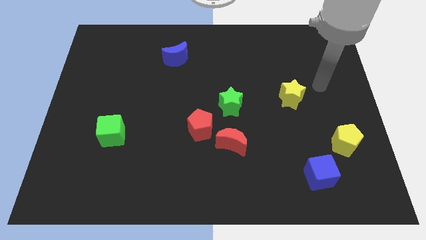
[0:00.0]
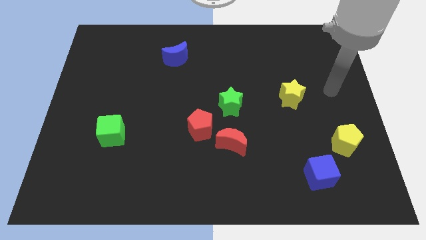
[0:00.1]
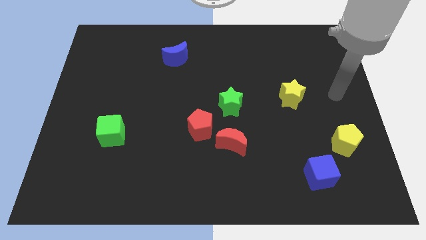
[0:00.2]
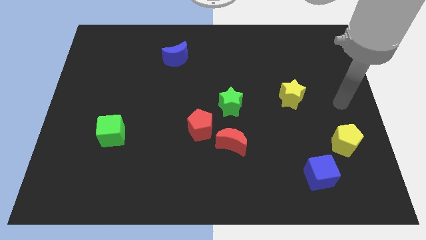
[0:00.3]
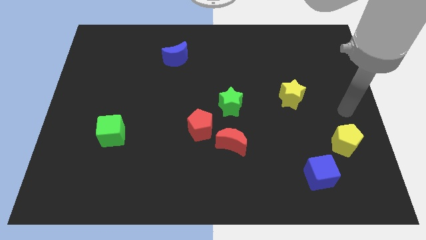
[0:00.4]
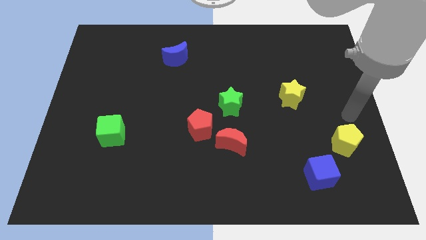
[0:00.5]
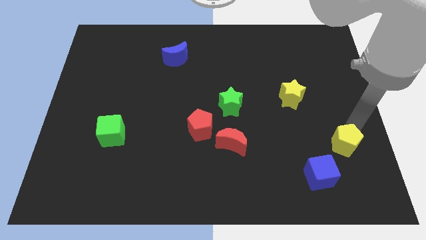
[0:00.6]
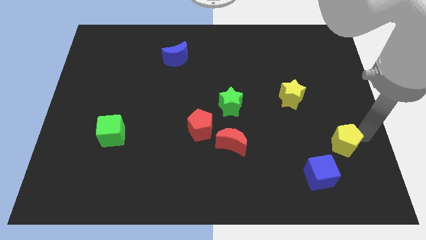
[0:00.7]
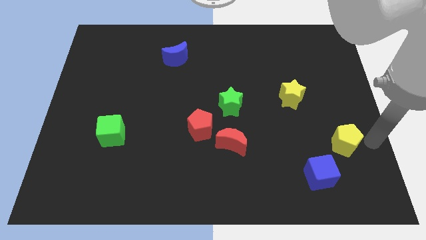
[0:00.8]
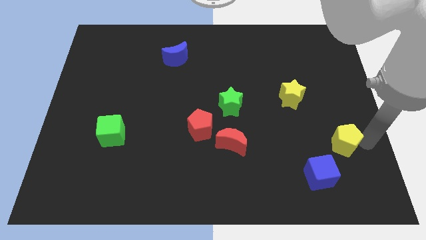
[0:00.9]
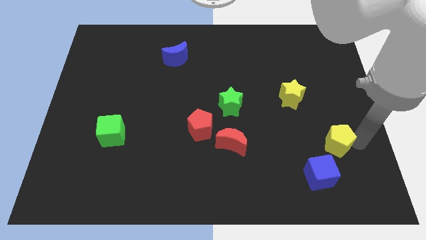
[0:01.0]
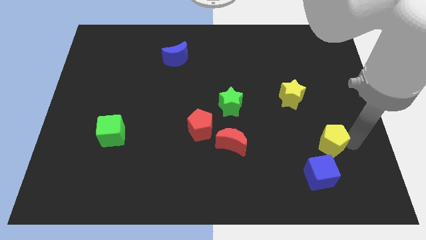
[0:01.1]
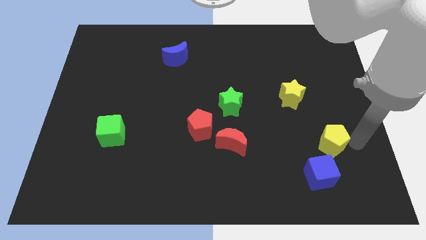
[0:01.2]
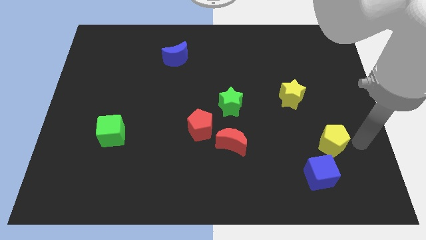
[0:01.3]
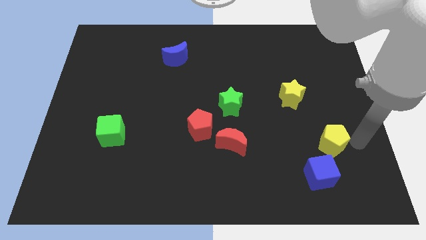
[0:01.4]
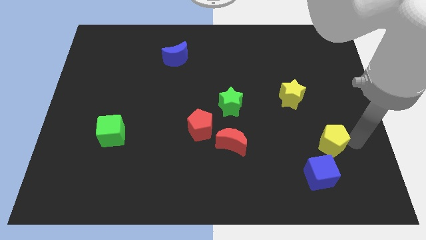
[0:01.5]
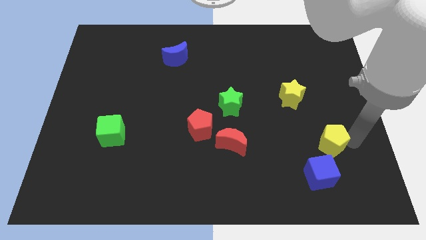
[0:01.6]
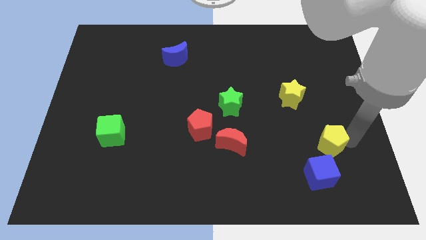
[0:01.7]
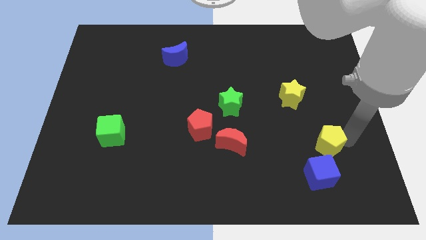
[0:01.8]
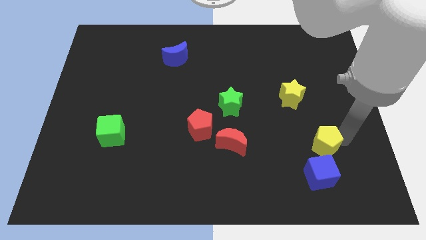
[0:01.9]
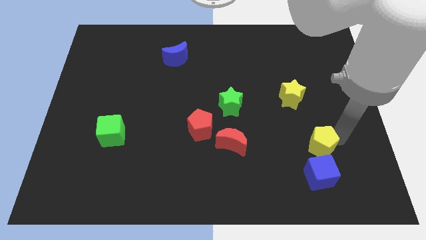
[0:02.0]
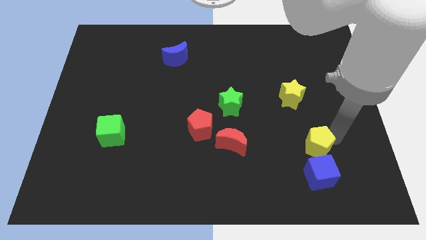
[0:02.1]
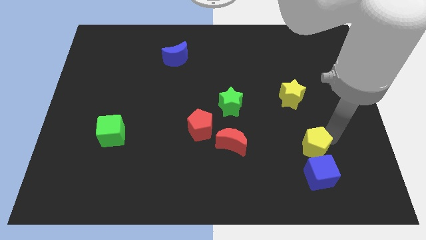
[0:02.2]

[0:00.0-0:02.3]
slightly move the yellow pentagon to the left

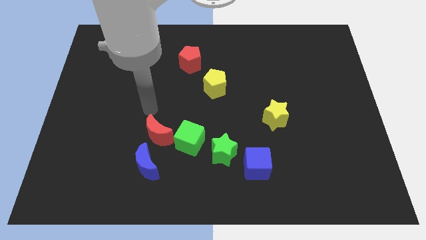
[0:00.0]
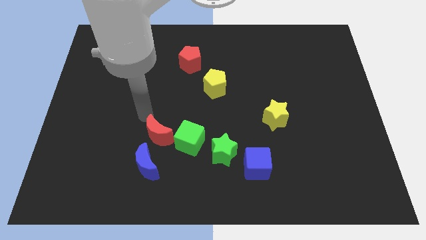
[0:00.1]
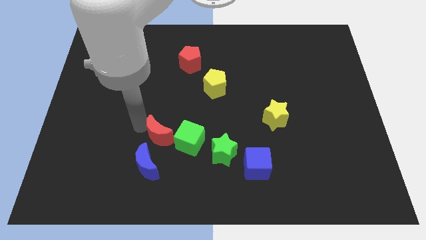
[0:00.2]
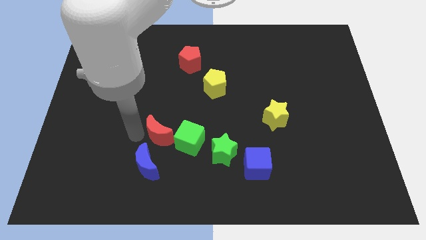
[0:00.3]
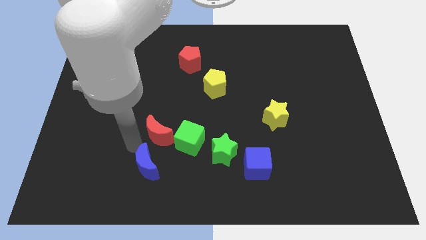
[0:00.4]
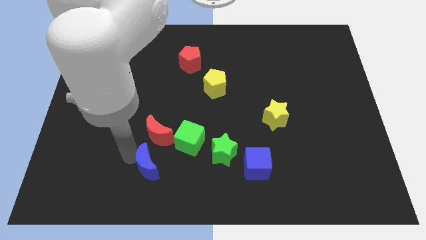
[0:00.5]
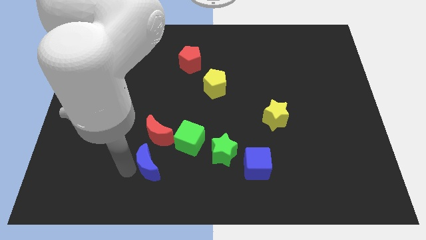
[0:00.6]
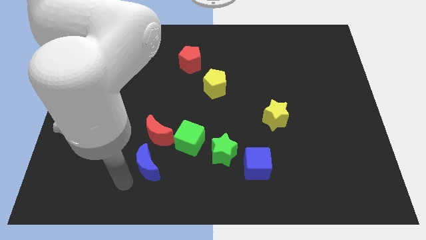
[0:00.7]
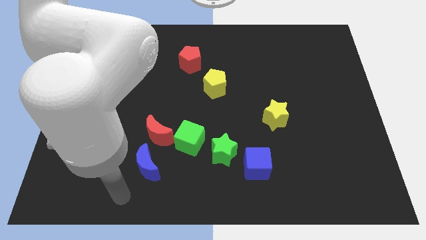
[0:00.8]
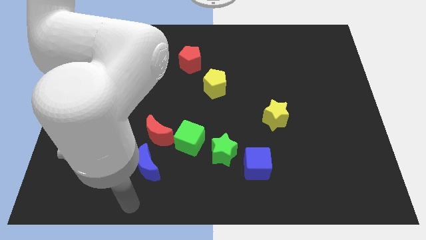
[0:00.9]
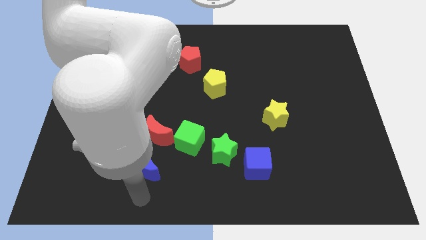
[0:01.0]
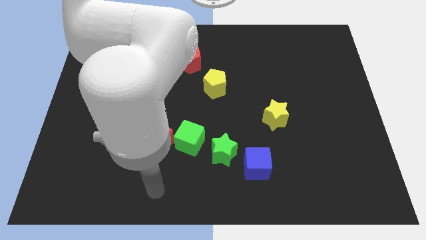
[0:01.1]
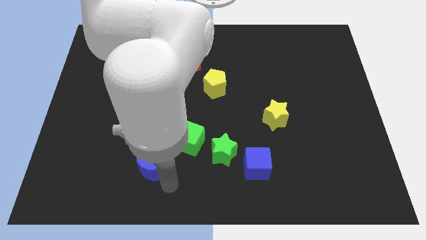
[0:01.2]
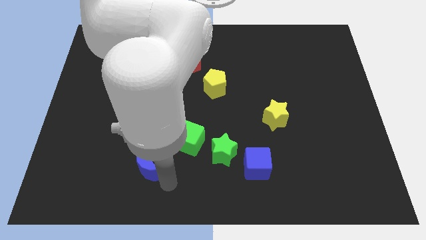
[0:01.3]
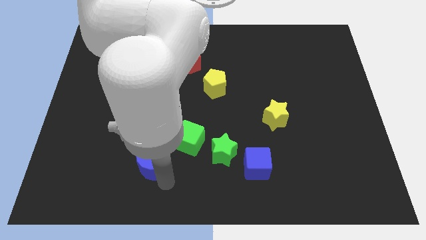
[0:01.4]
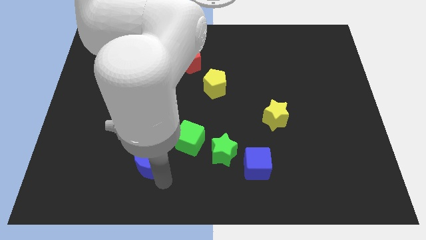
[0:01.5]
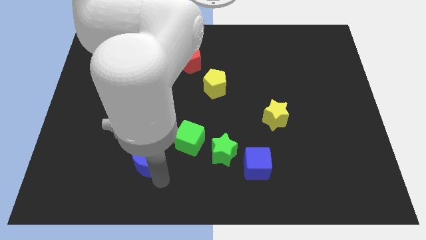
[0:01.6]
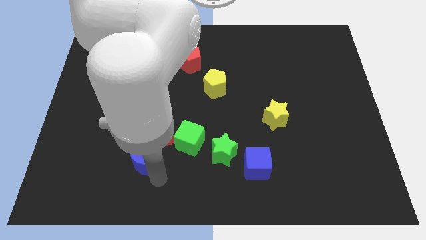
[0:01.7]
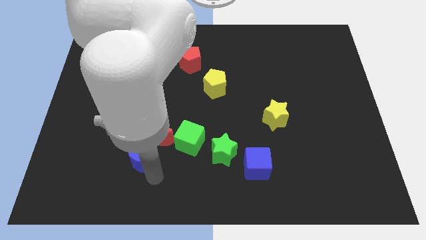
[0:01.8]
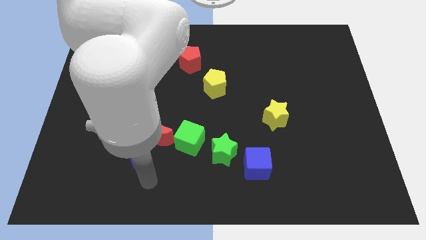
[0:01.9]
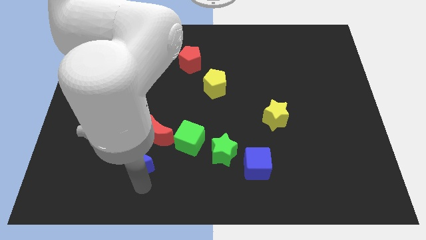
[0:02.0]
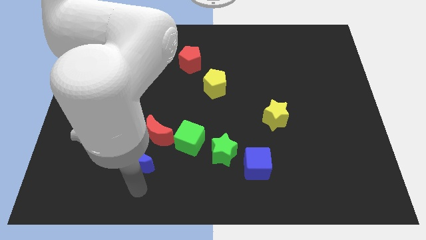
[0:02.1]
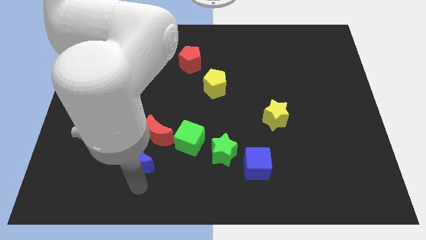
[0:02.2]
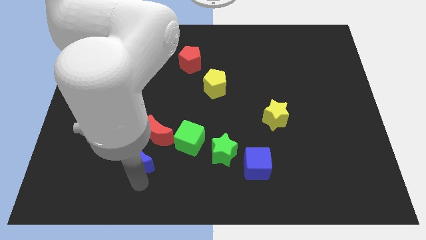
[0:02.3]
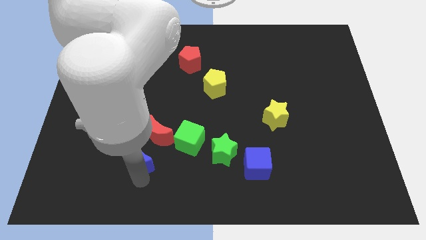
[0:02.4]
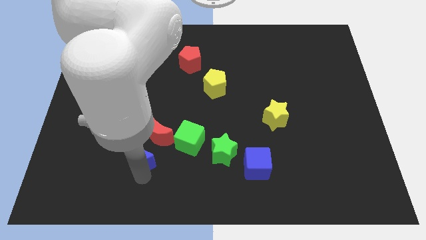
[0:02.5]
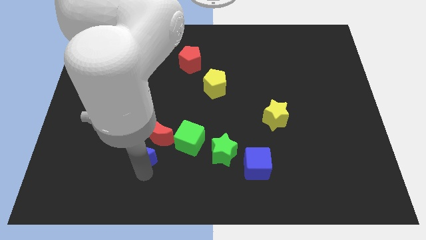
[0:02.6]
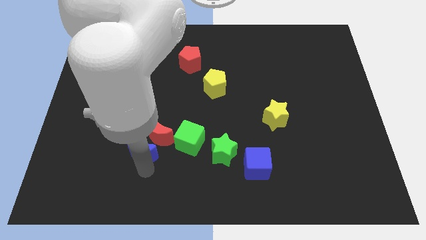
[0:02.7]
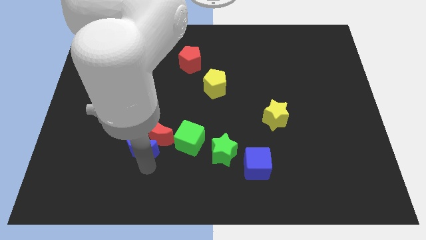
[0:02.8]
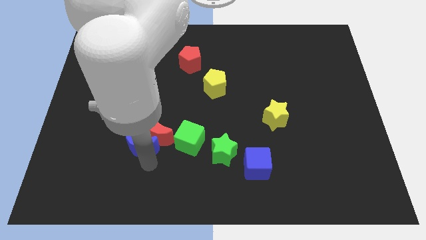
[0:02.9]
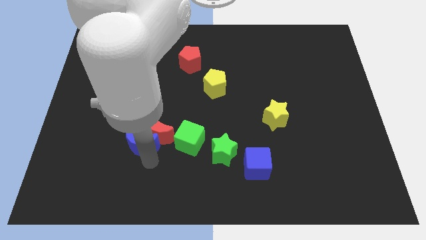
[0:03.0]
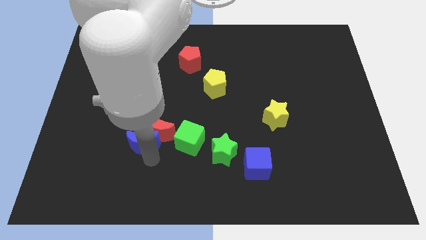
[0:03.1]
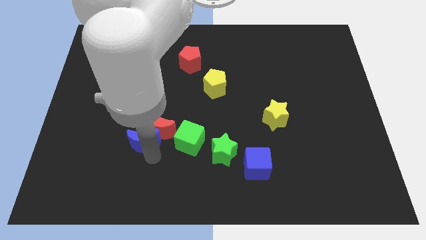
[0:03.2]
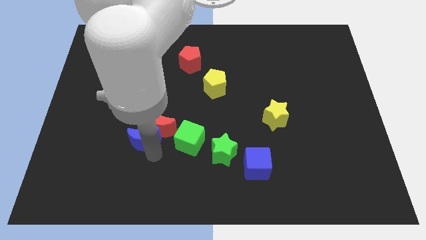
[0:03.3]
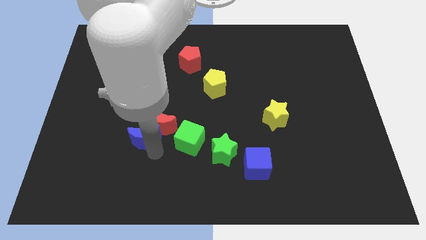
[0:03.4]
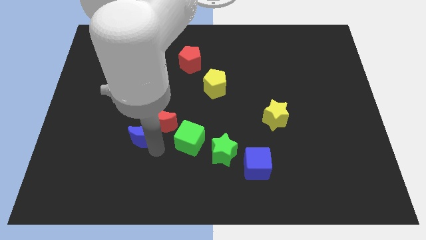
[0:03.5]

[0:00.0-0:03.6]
move the blue moon a bit upwards

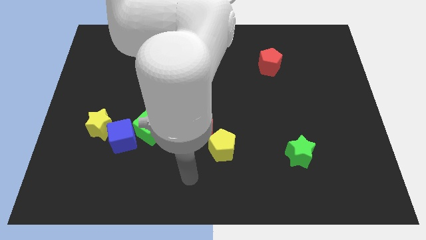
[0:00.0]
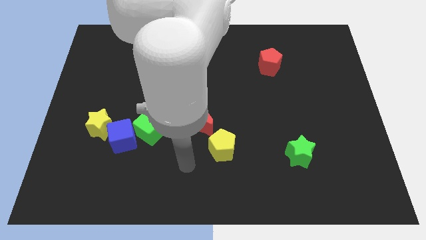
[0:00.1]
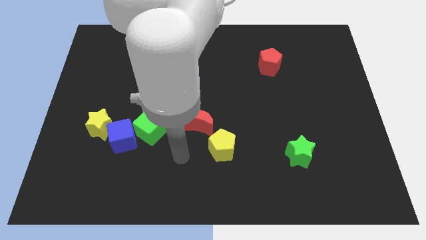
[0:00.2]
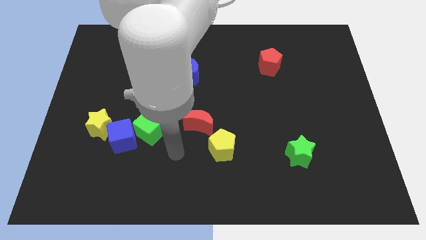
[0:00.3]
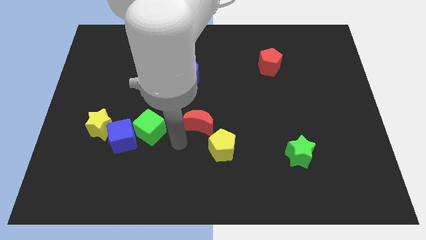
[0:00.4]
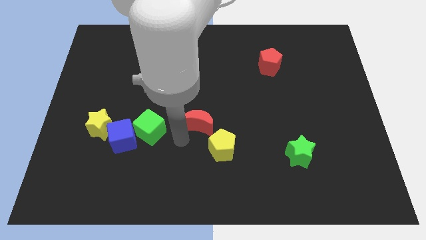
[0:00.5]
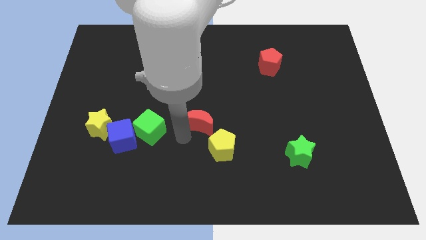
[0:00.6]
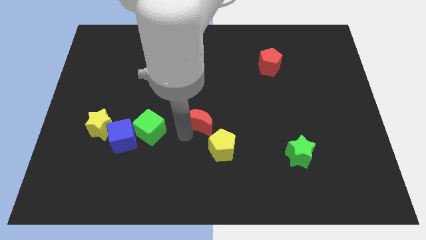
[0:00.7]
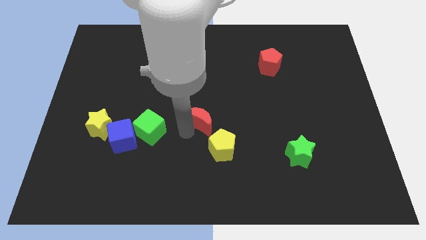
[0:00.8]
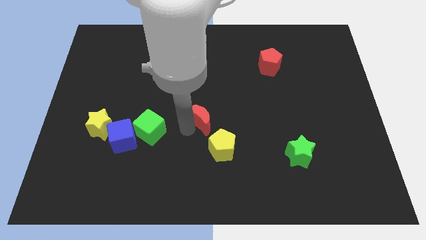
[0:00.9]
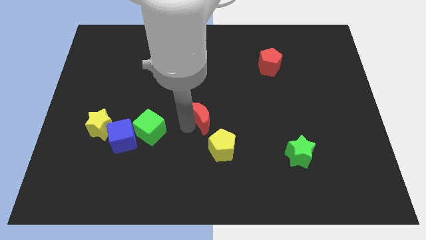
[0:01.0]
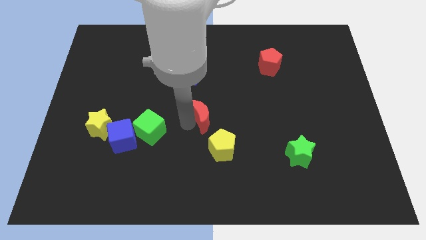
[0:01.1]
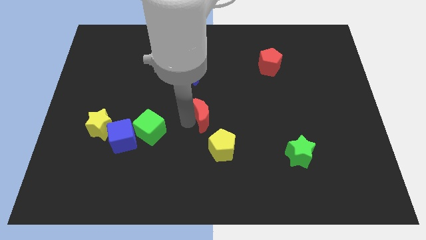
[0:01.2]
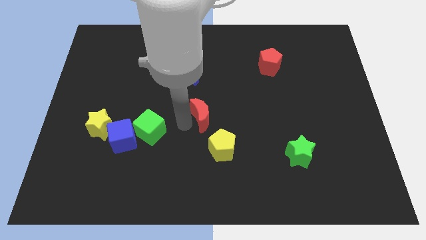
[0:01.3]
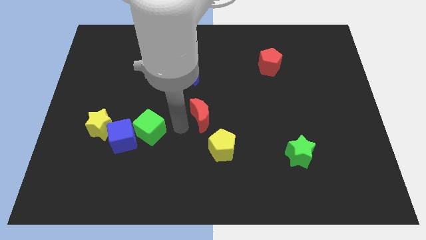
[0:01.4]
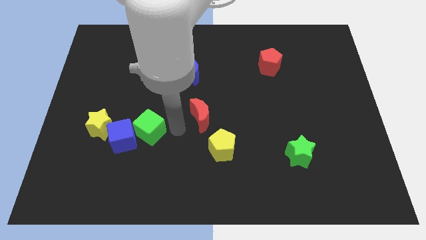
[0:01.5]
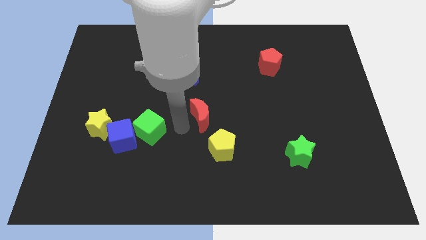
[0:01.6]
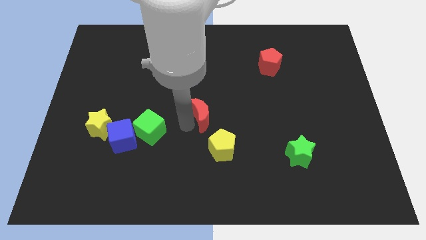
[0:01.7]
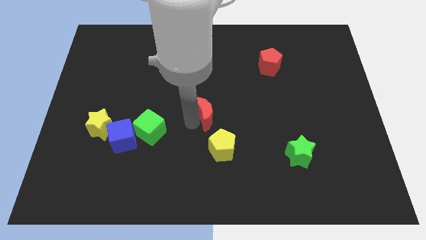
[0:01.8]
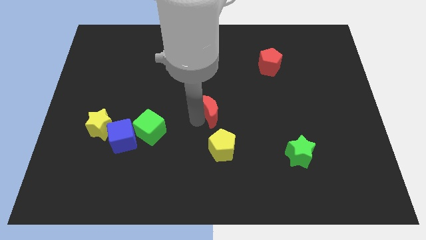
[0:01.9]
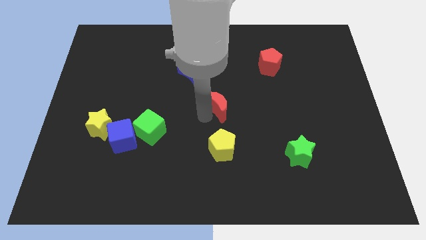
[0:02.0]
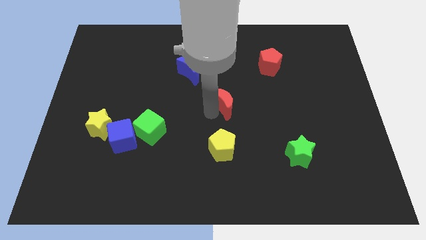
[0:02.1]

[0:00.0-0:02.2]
push the red moon a bit up and to the right diagonally

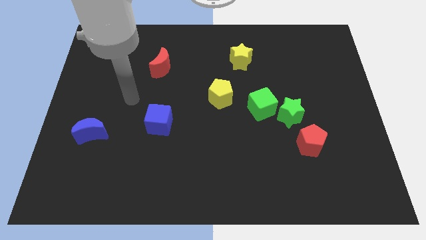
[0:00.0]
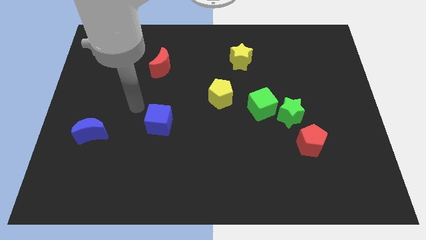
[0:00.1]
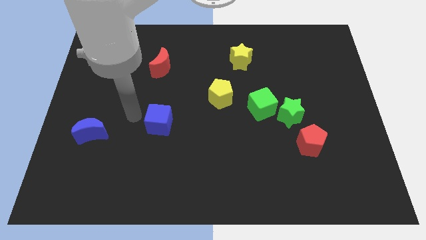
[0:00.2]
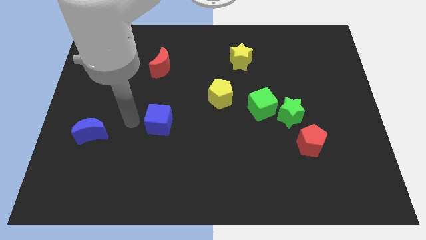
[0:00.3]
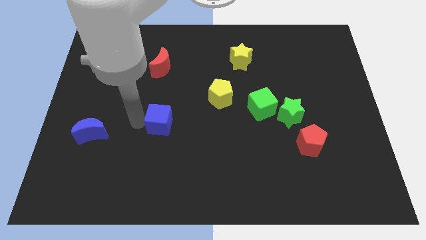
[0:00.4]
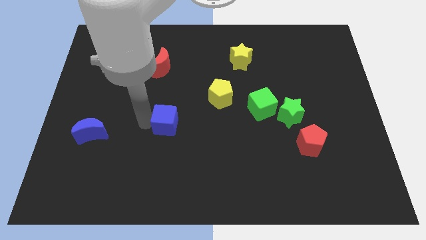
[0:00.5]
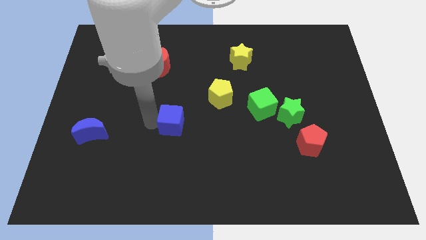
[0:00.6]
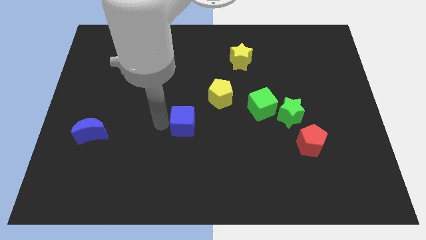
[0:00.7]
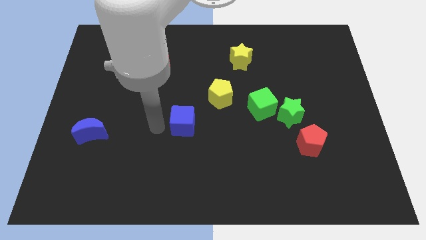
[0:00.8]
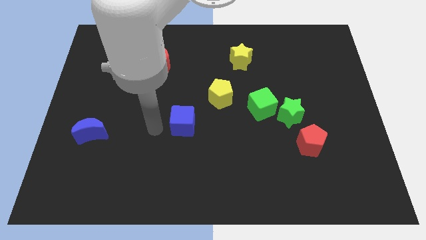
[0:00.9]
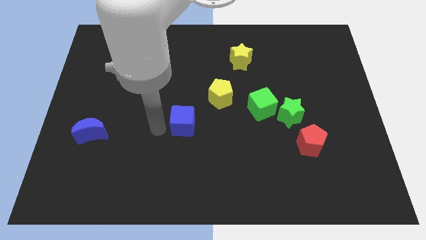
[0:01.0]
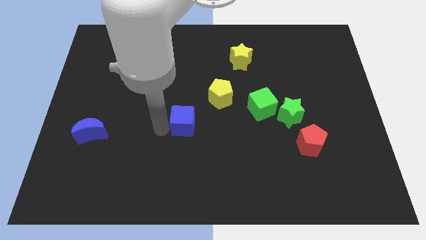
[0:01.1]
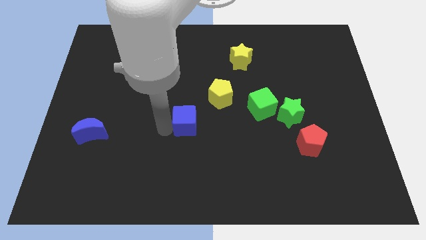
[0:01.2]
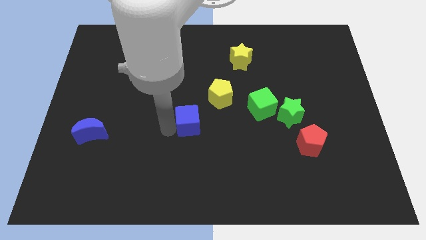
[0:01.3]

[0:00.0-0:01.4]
move the blue cube slightly right
